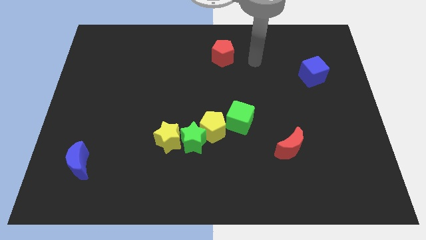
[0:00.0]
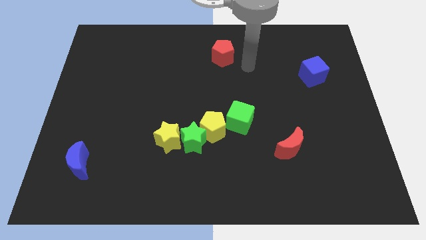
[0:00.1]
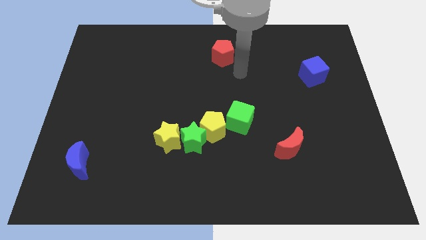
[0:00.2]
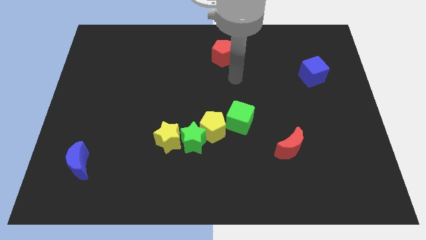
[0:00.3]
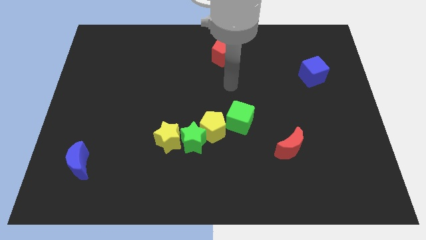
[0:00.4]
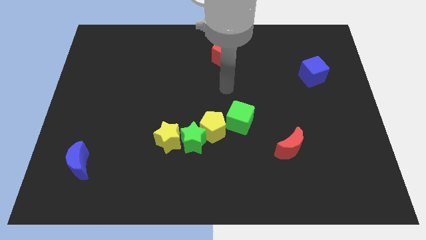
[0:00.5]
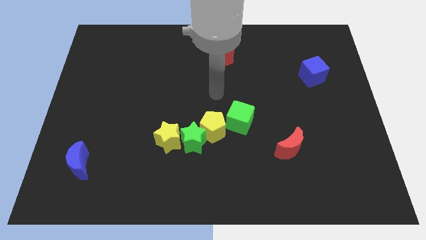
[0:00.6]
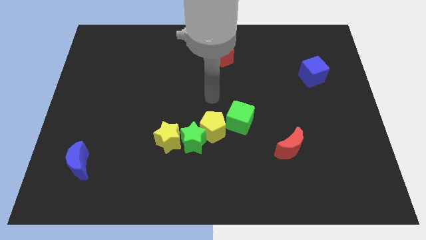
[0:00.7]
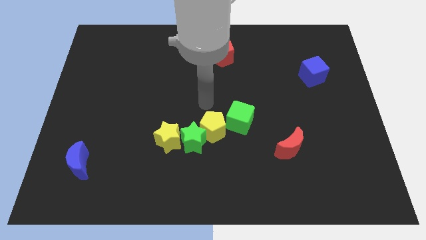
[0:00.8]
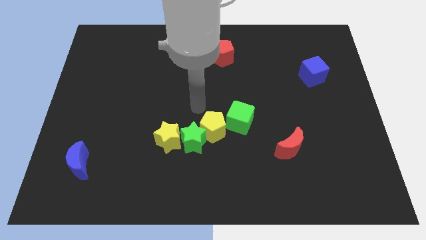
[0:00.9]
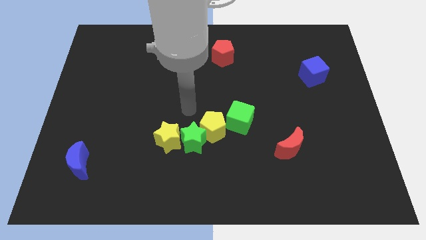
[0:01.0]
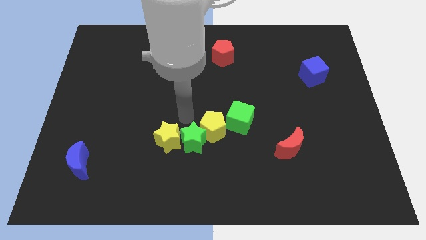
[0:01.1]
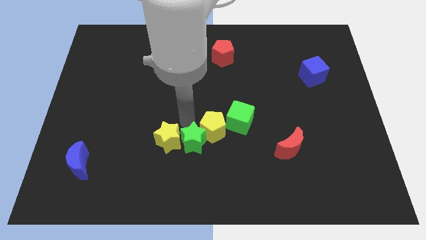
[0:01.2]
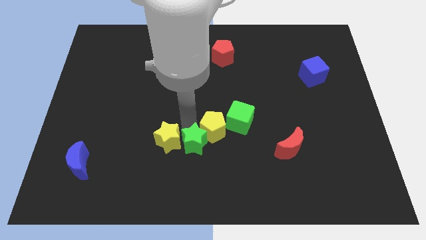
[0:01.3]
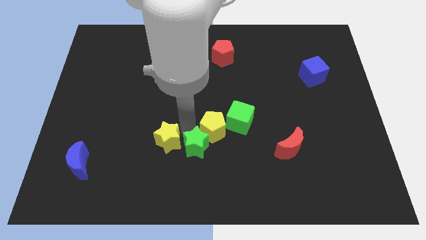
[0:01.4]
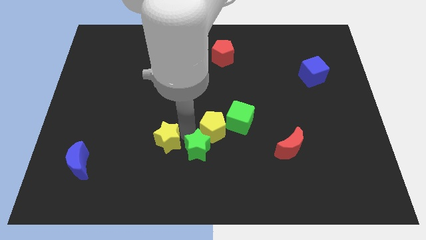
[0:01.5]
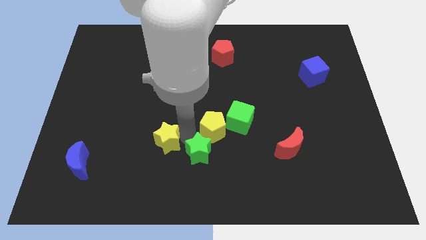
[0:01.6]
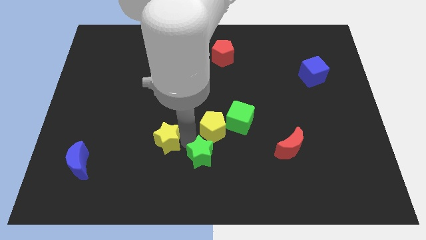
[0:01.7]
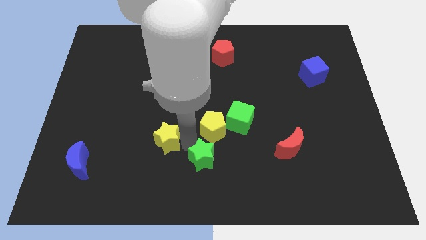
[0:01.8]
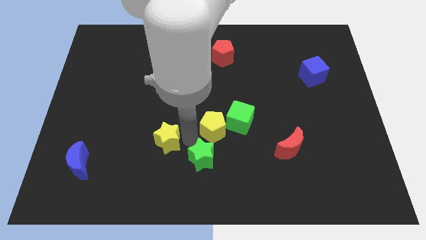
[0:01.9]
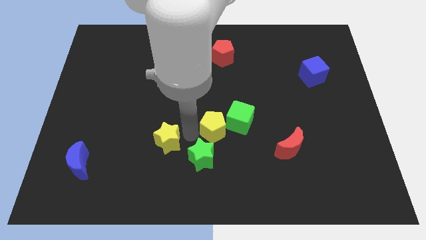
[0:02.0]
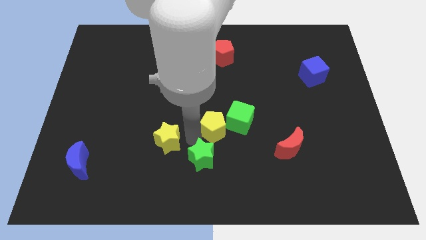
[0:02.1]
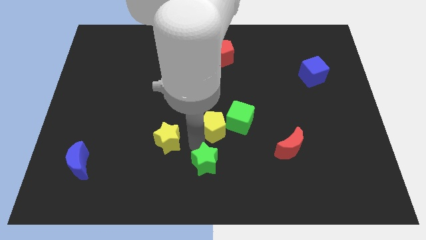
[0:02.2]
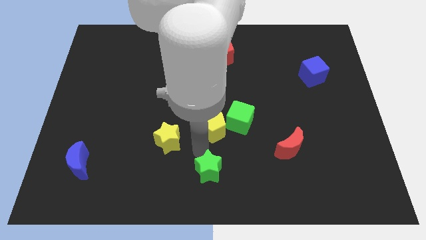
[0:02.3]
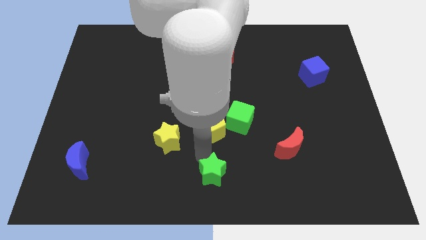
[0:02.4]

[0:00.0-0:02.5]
move the green star away from the yellow pentagon and yellow star

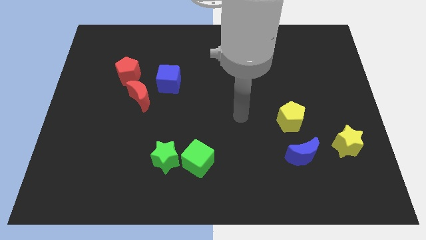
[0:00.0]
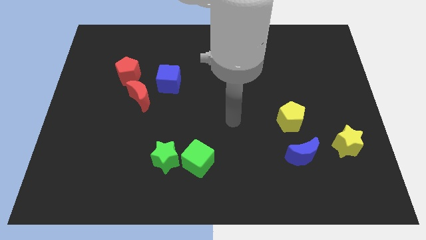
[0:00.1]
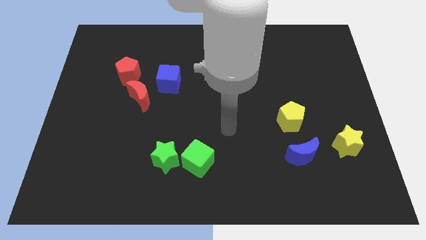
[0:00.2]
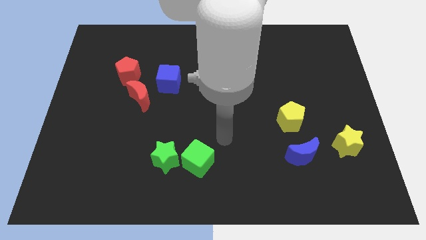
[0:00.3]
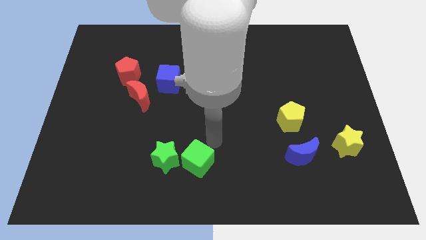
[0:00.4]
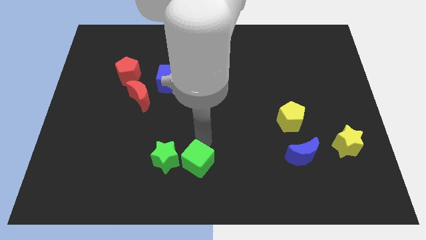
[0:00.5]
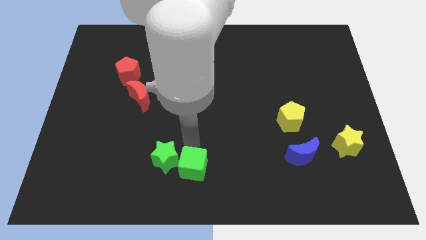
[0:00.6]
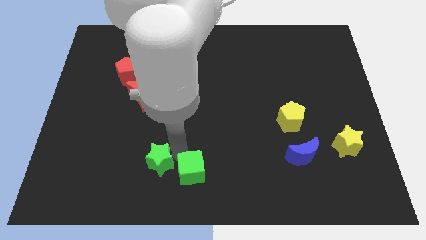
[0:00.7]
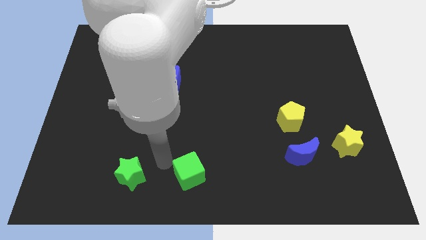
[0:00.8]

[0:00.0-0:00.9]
pull the green cube apart from the green star

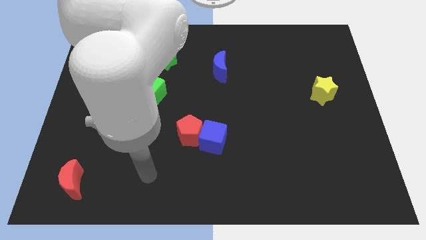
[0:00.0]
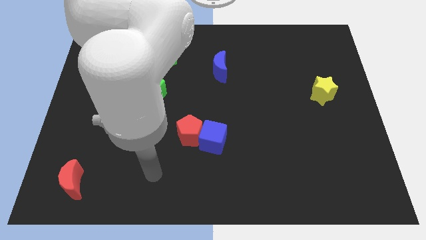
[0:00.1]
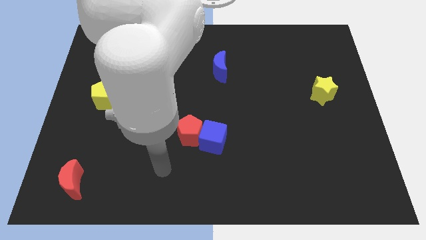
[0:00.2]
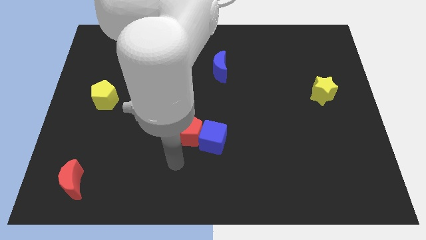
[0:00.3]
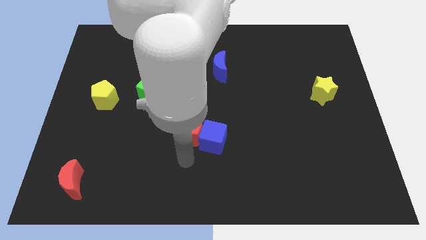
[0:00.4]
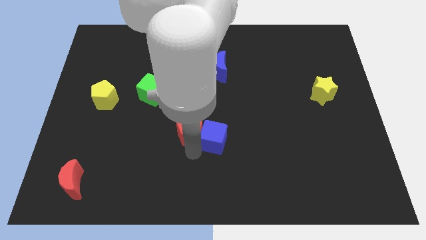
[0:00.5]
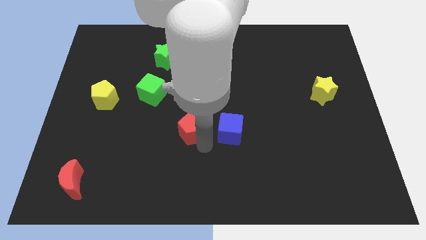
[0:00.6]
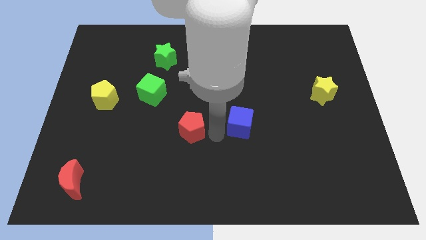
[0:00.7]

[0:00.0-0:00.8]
pull the red pentagon apart from the blue cube

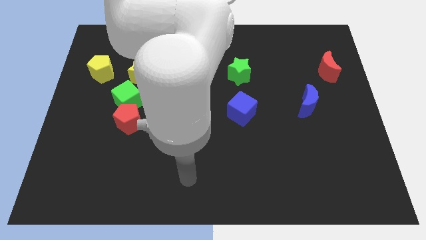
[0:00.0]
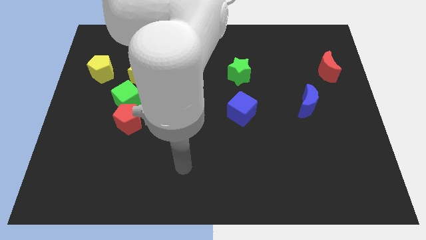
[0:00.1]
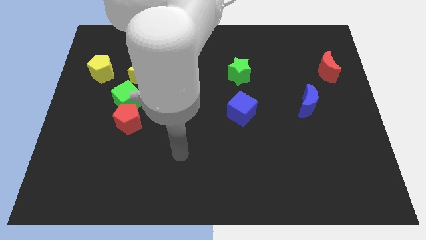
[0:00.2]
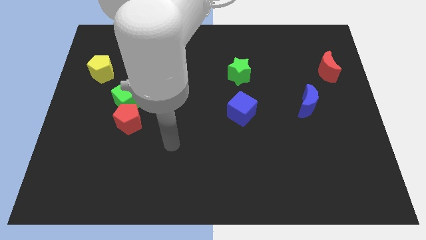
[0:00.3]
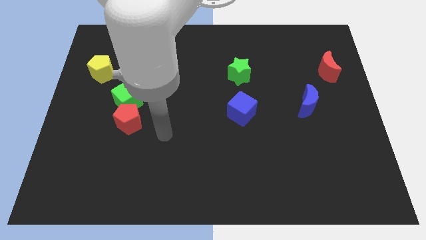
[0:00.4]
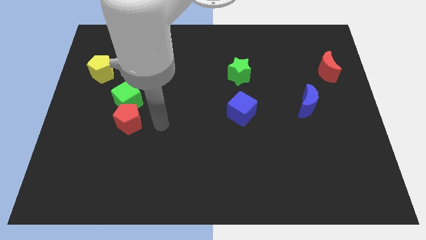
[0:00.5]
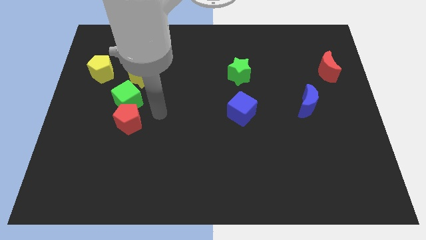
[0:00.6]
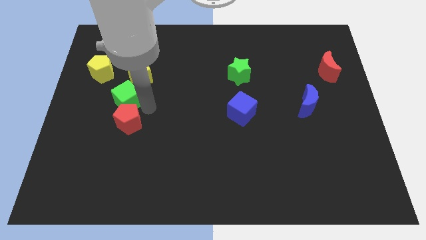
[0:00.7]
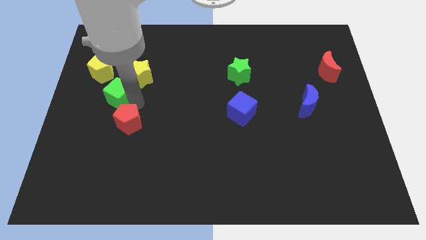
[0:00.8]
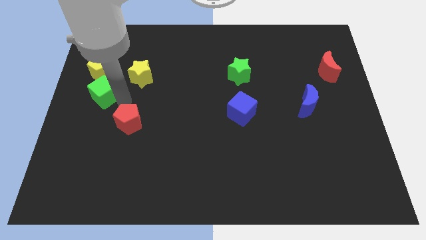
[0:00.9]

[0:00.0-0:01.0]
separate the red pentagon from the green cube

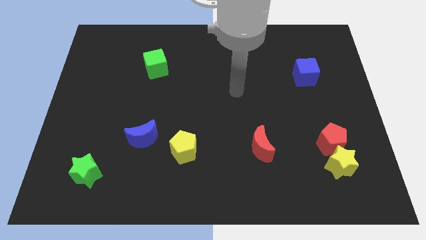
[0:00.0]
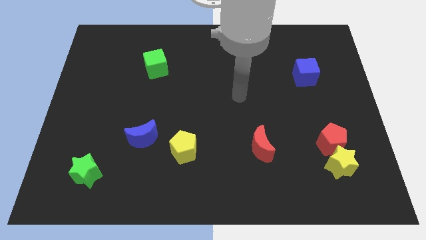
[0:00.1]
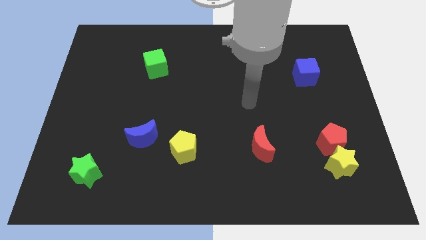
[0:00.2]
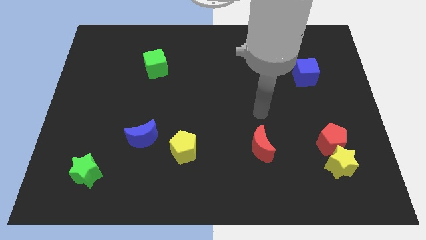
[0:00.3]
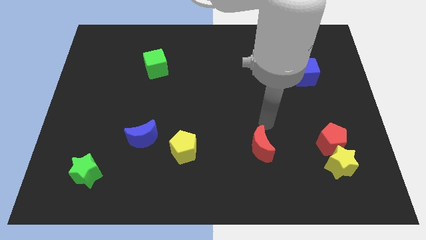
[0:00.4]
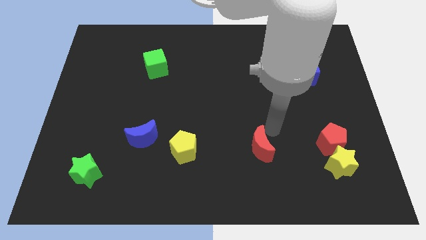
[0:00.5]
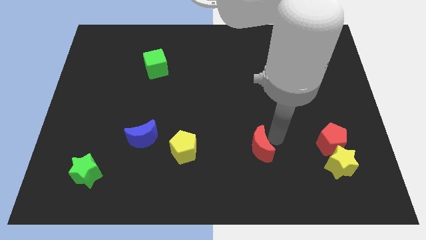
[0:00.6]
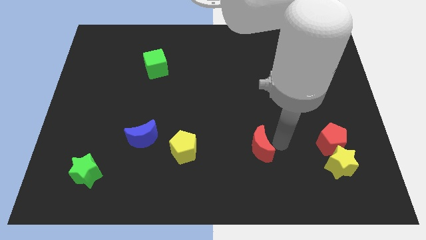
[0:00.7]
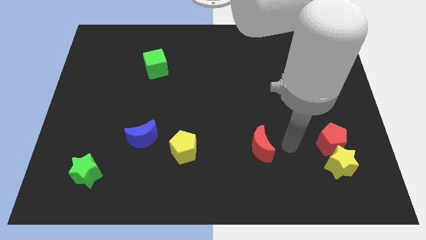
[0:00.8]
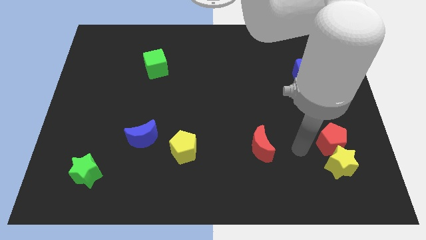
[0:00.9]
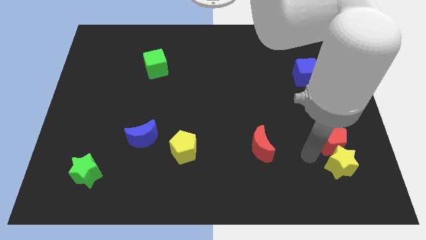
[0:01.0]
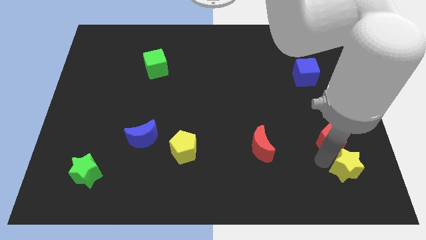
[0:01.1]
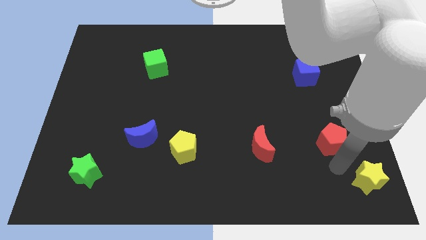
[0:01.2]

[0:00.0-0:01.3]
pull the red pentagon apart from the yellow star

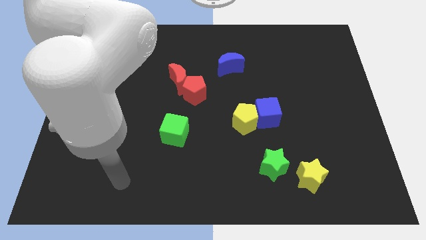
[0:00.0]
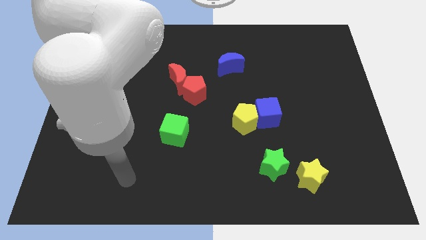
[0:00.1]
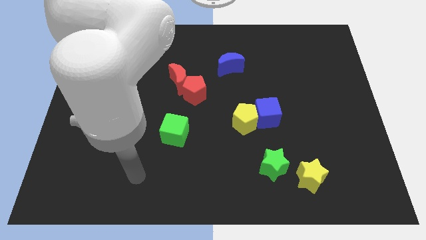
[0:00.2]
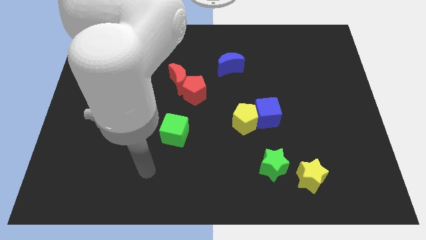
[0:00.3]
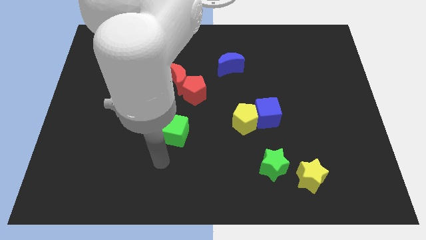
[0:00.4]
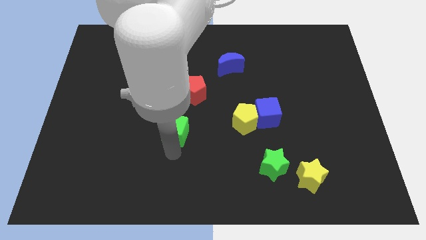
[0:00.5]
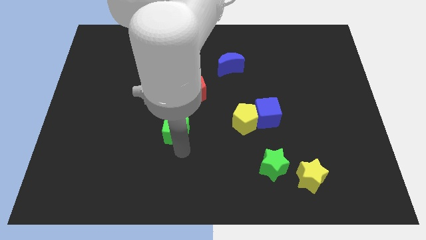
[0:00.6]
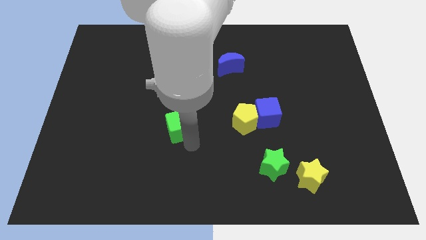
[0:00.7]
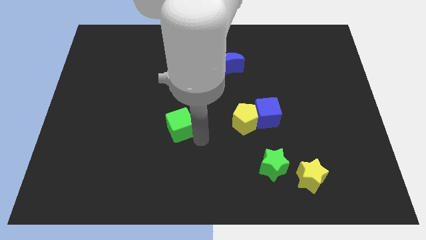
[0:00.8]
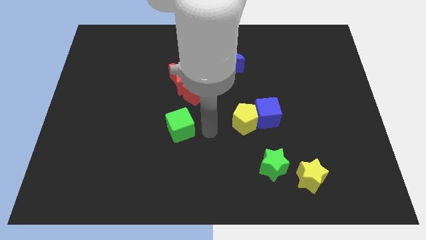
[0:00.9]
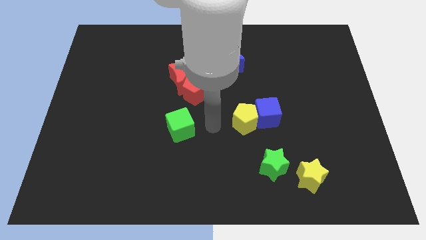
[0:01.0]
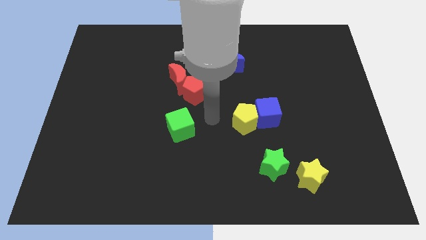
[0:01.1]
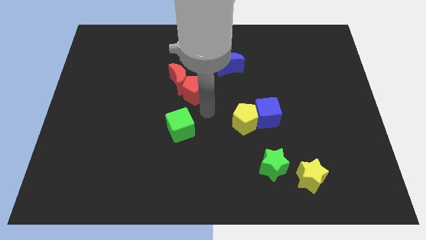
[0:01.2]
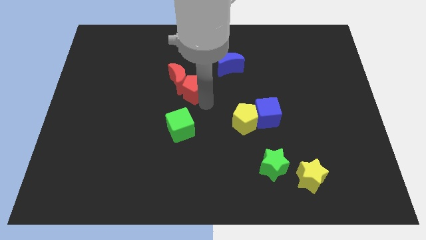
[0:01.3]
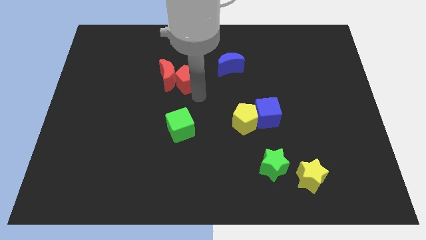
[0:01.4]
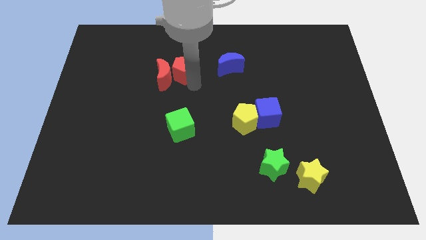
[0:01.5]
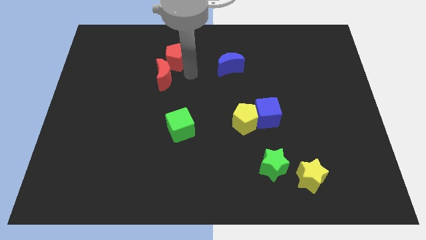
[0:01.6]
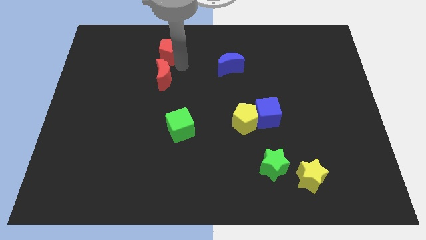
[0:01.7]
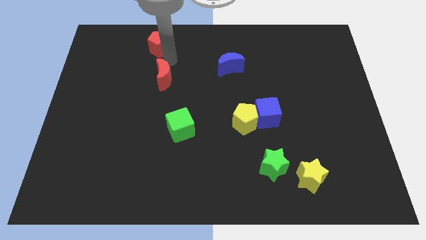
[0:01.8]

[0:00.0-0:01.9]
separate the red moon from the red pentagon

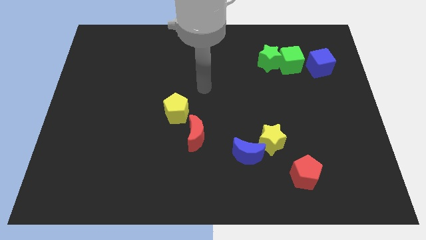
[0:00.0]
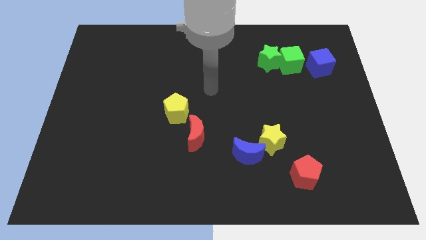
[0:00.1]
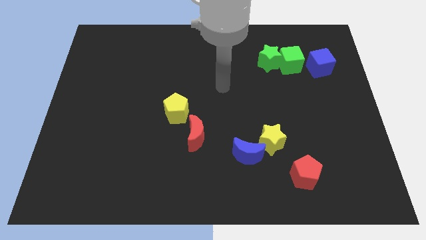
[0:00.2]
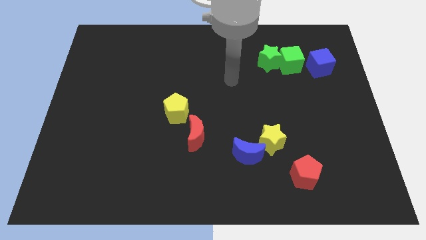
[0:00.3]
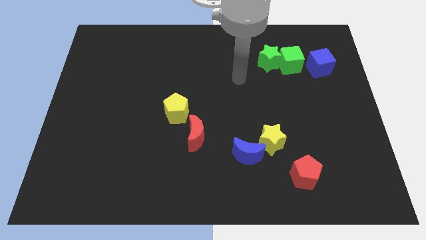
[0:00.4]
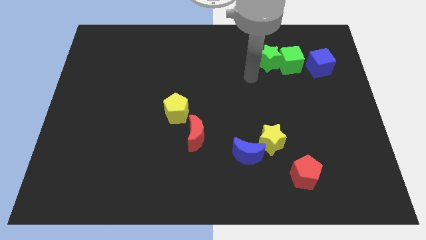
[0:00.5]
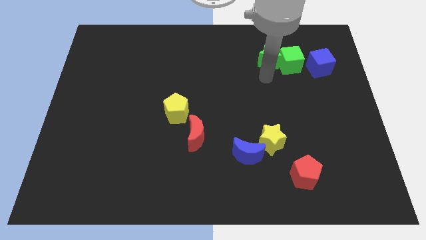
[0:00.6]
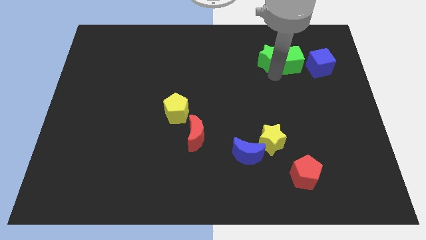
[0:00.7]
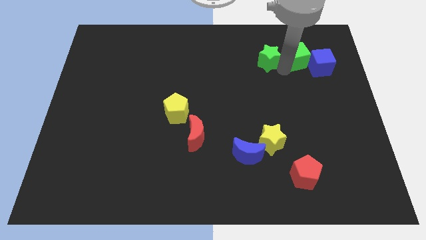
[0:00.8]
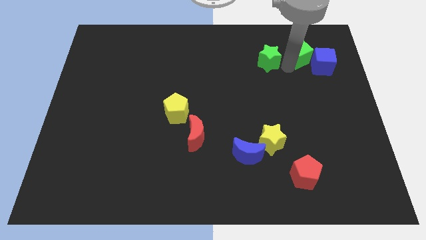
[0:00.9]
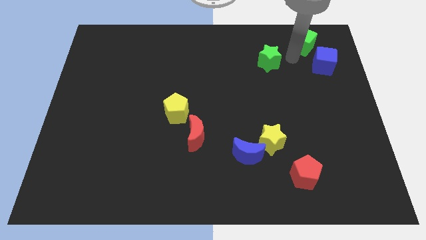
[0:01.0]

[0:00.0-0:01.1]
pull the green star apart from the green cube
